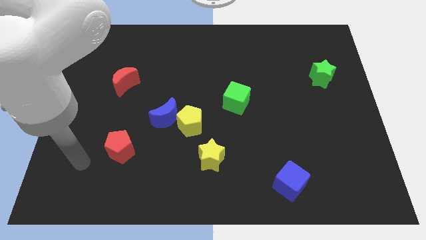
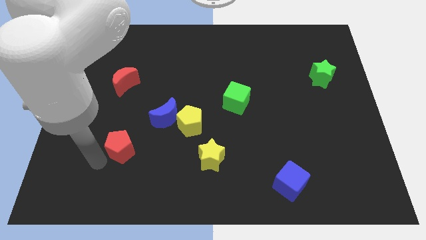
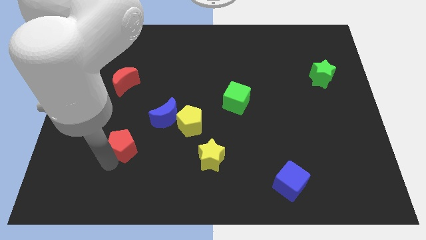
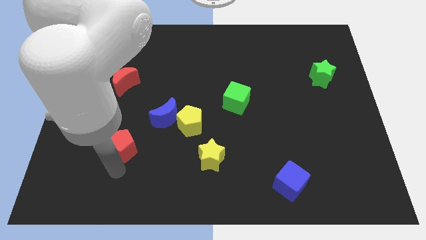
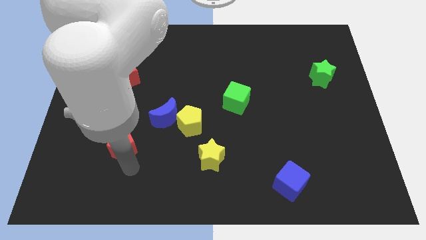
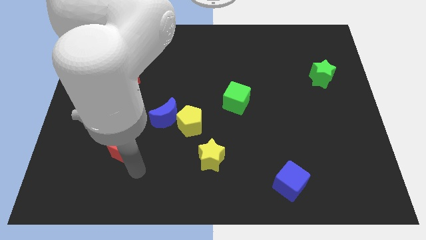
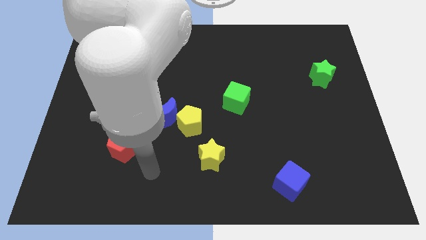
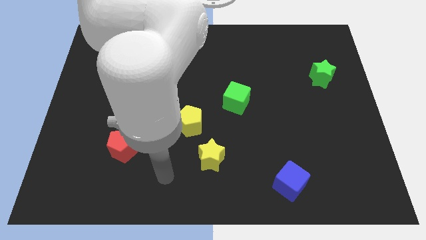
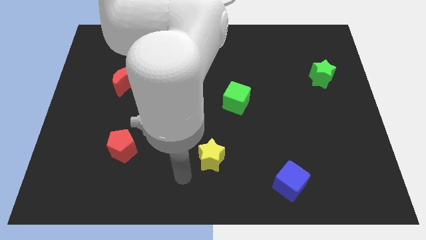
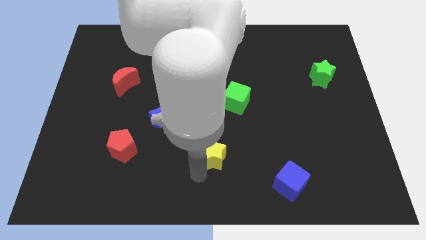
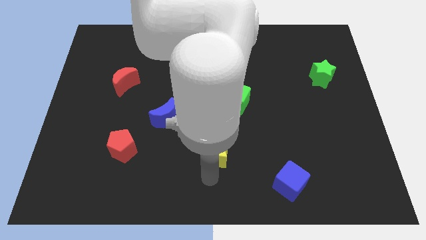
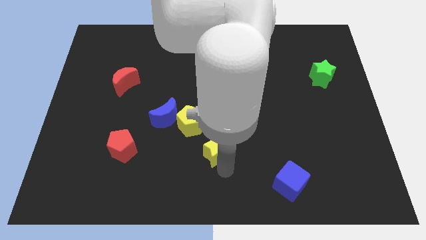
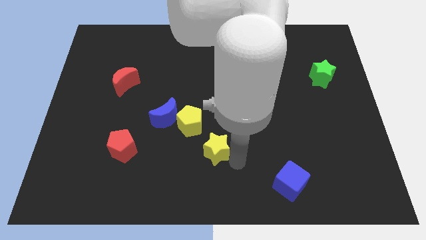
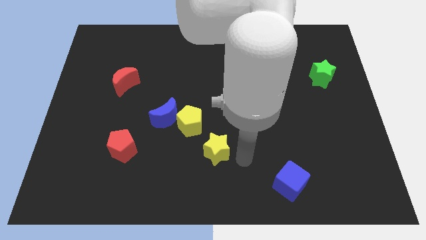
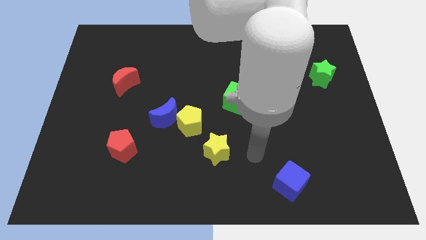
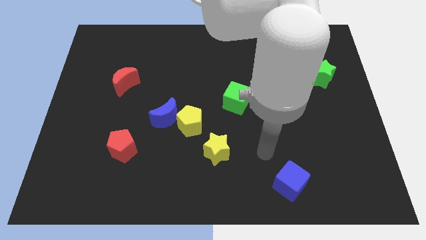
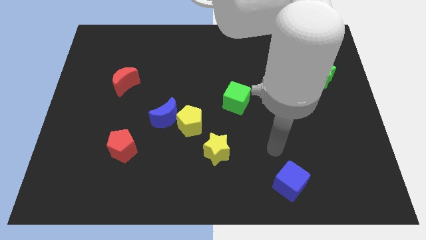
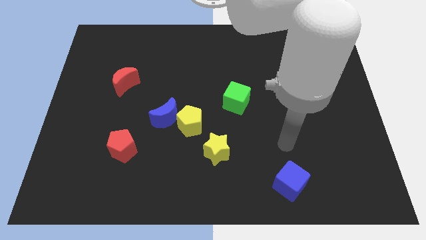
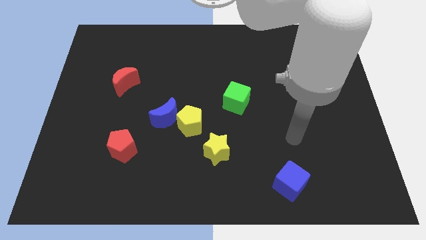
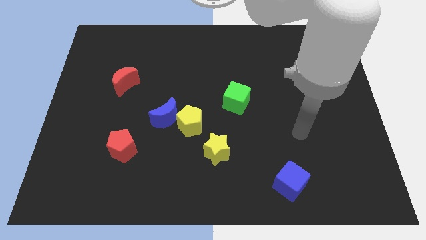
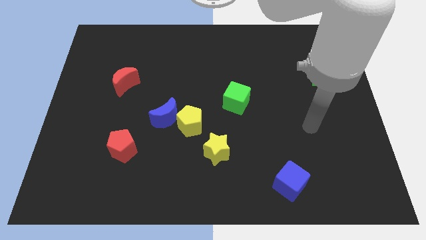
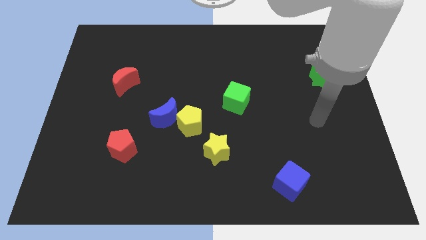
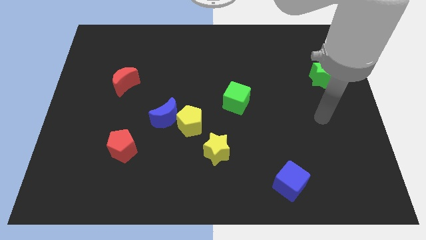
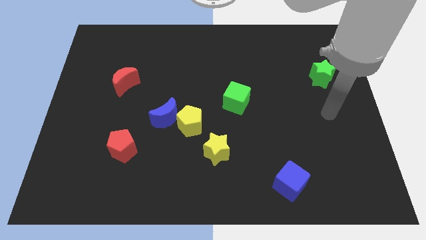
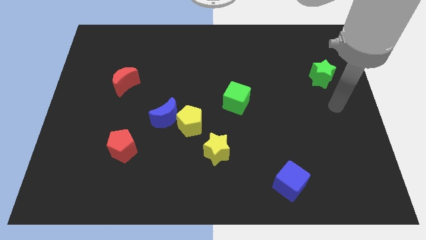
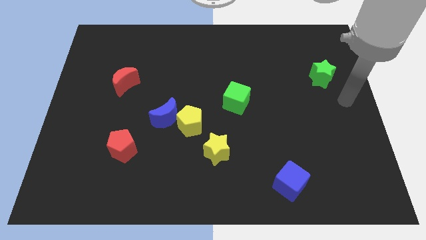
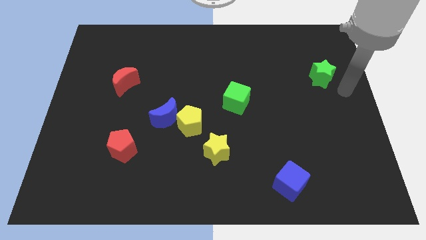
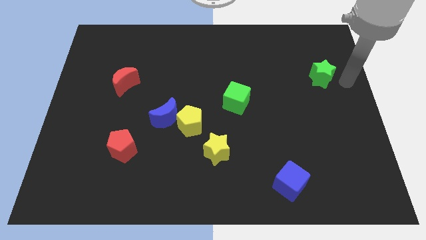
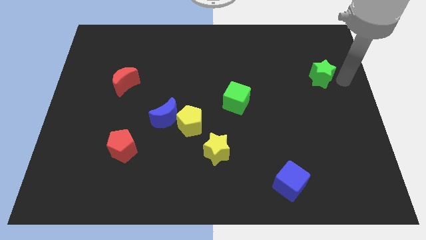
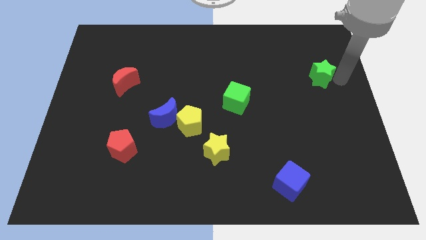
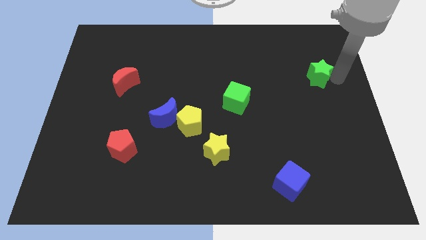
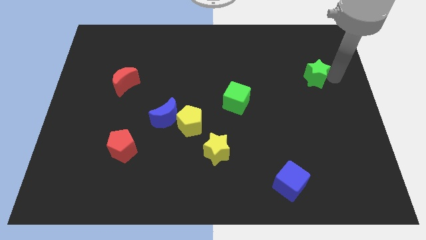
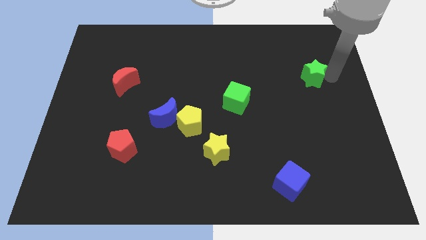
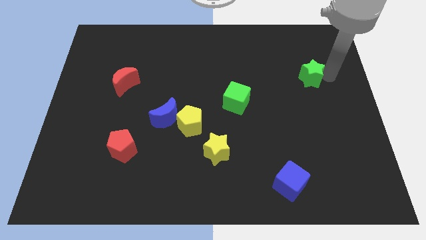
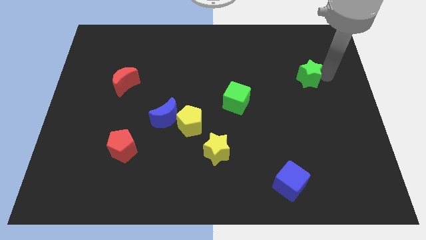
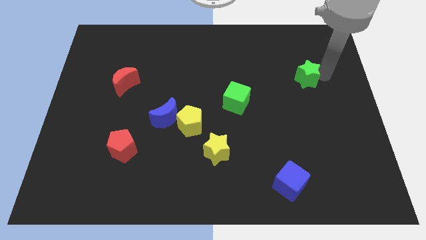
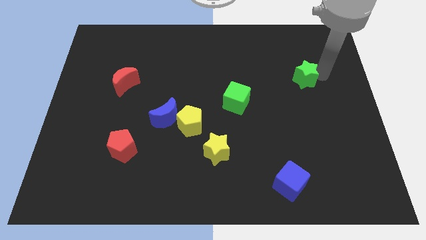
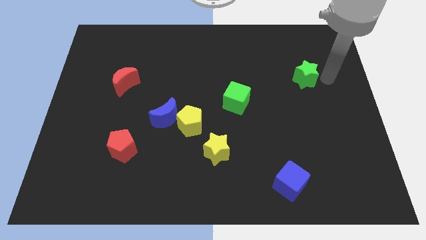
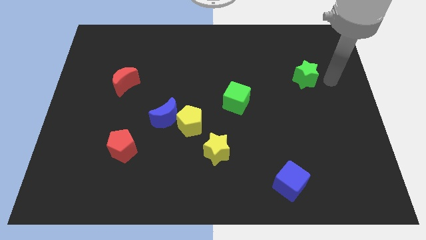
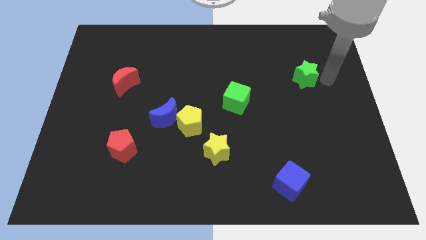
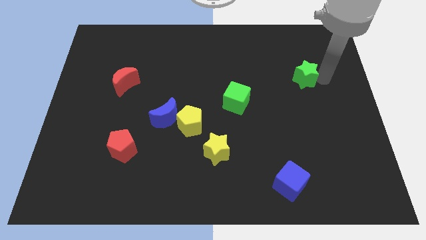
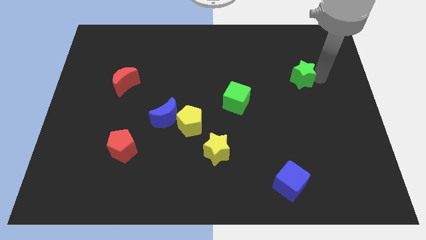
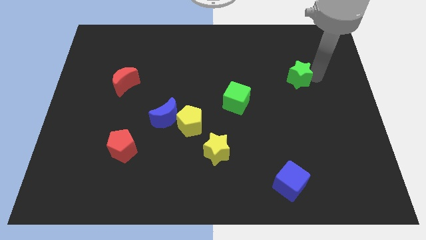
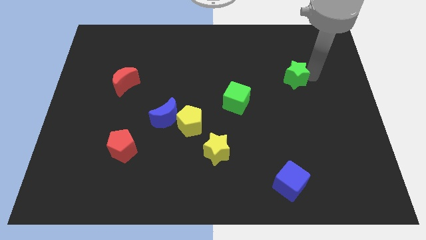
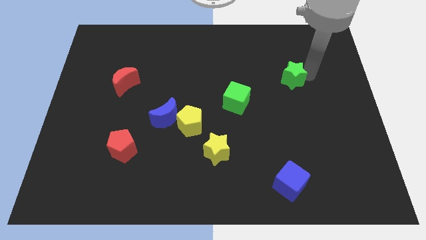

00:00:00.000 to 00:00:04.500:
slide the green star left slightly

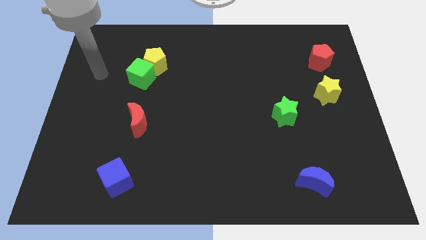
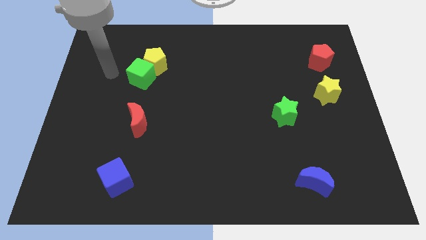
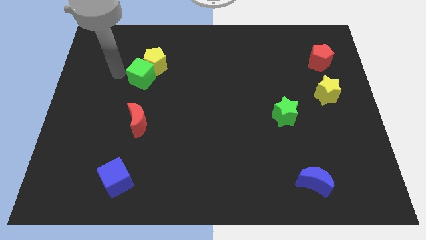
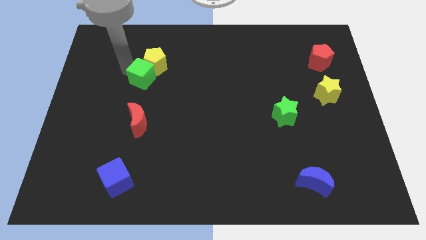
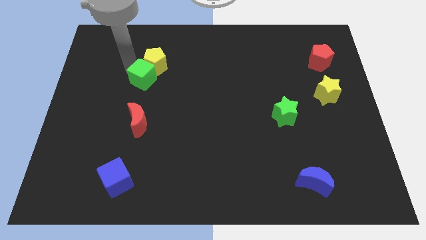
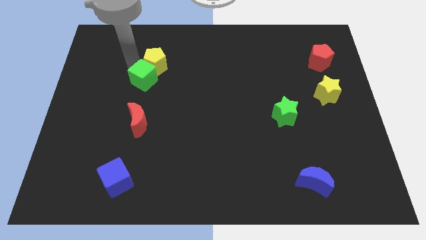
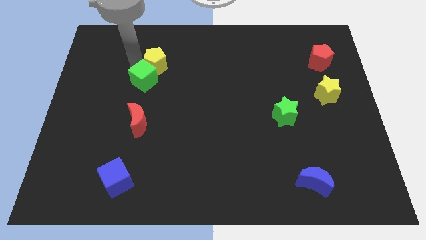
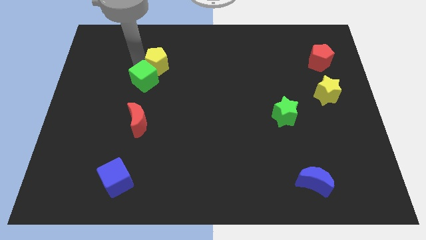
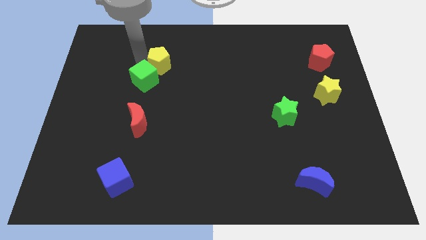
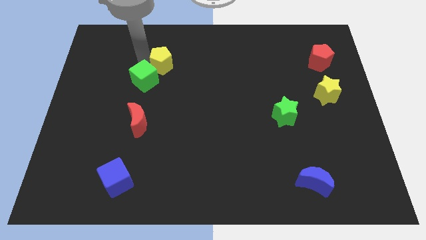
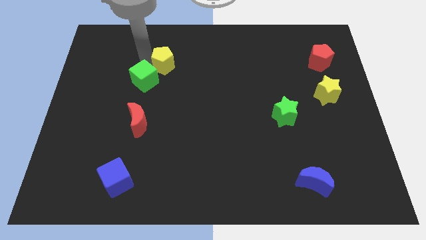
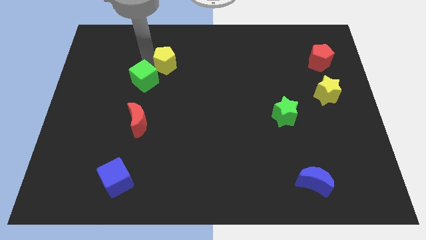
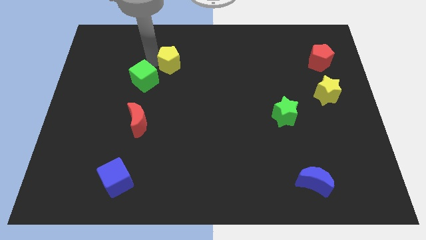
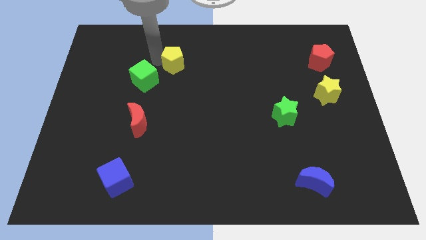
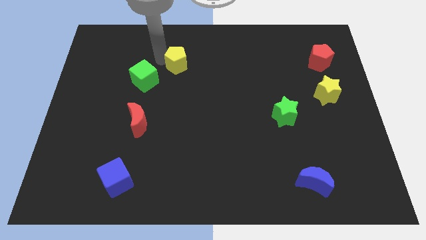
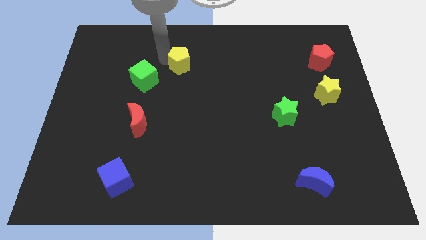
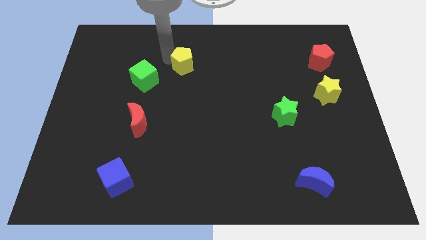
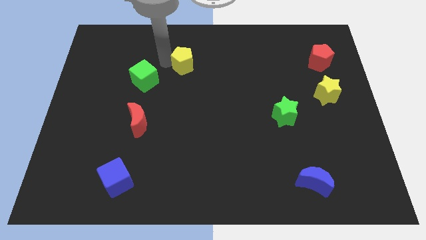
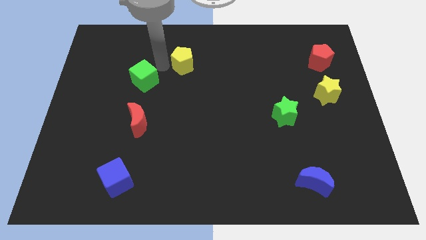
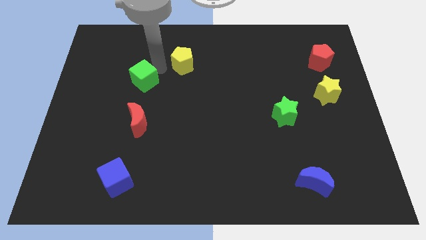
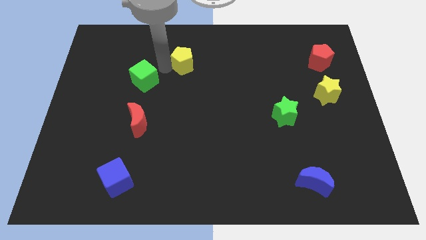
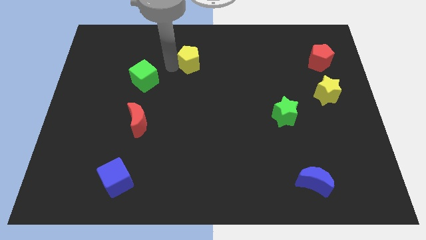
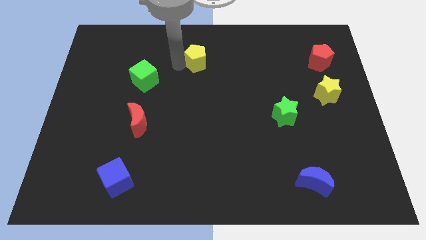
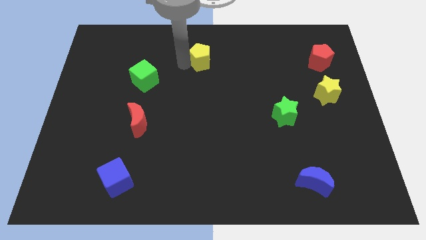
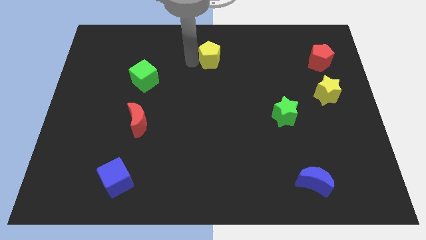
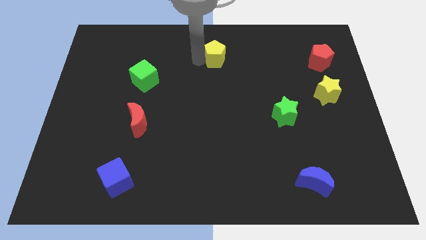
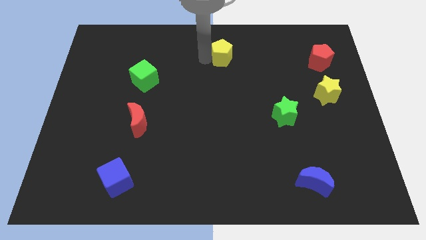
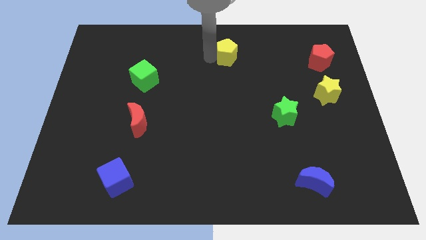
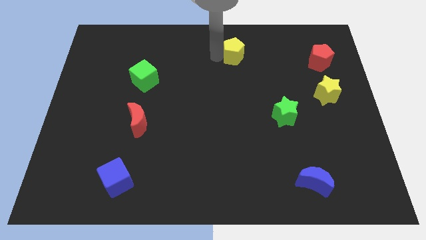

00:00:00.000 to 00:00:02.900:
move the yellow pentagon right

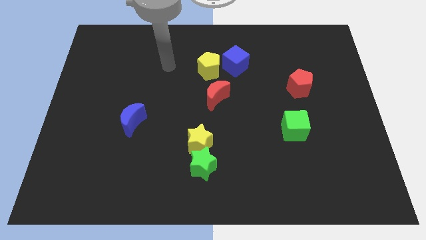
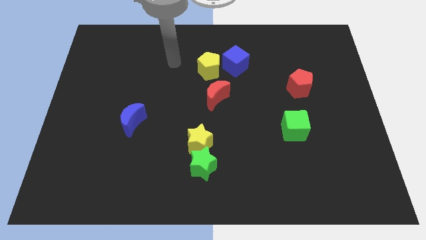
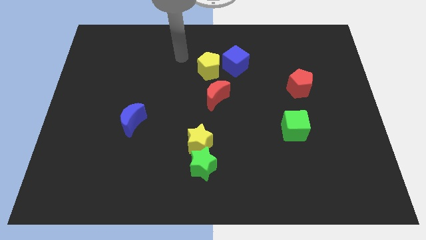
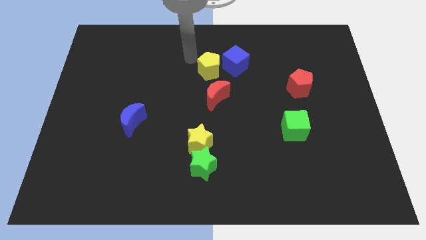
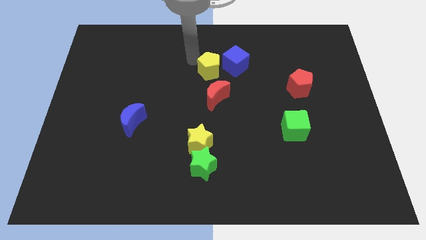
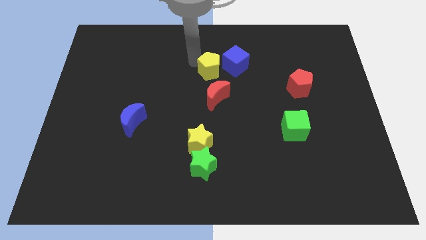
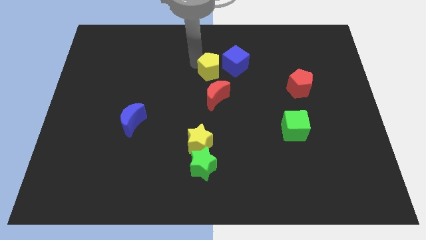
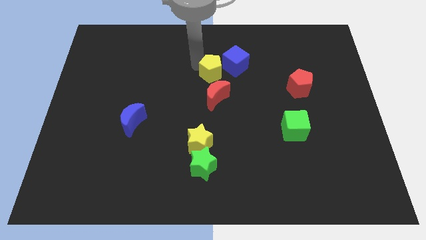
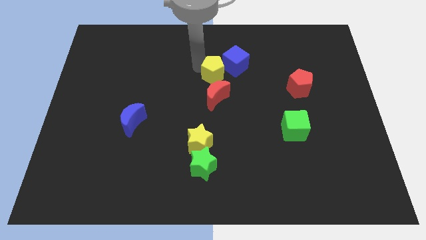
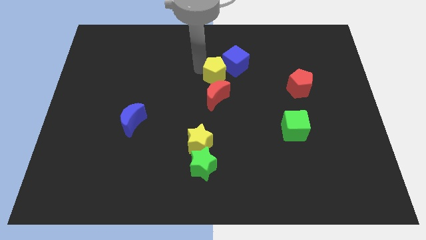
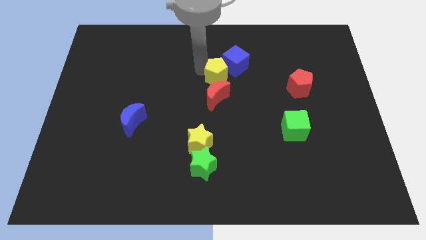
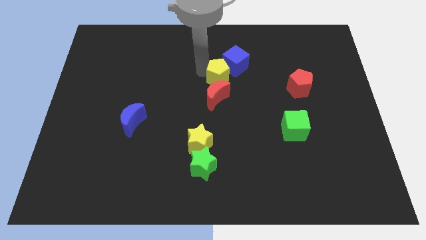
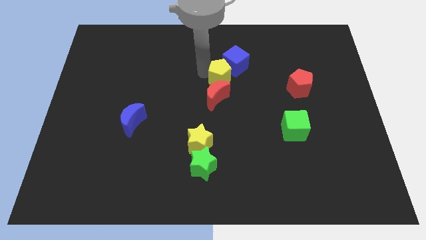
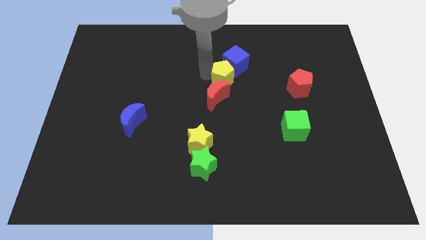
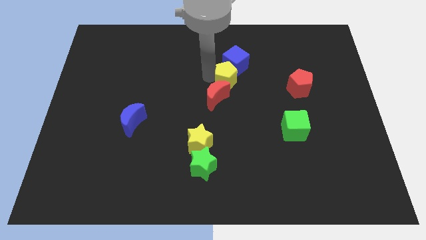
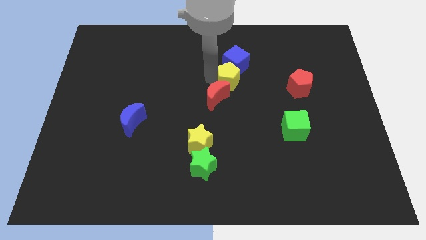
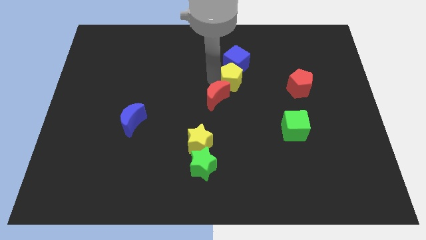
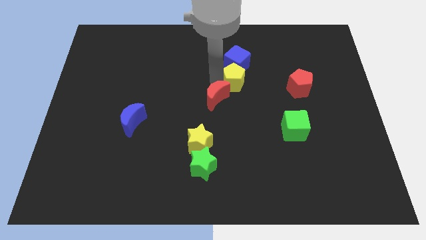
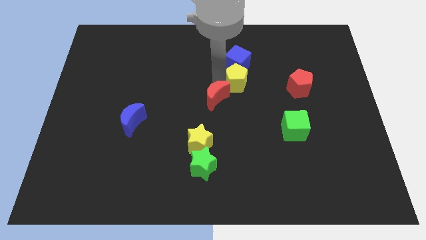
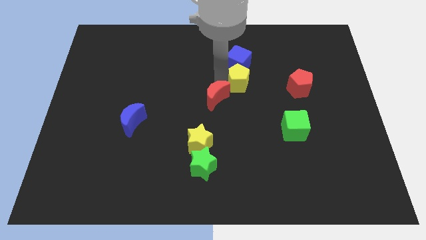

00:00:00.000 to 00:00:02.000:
slightly push the yellow pentagon right
